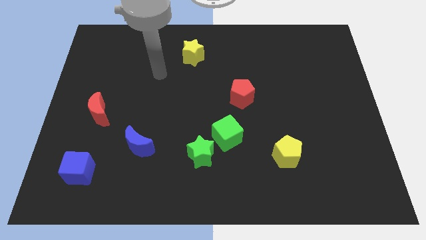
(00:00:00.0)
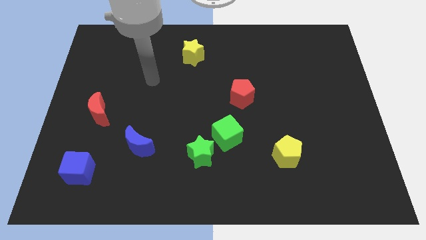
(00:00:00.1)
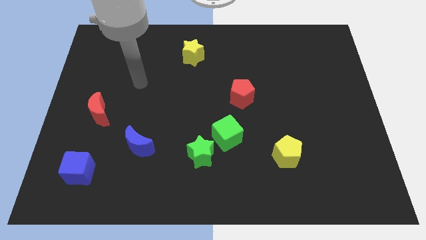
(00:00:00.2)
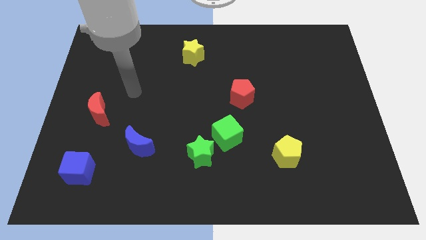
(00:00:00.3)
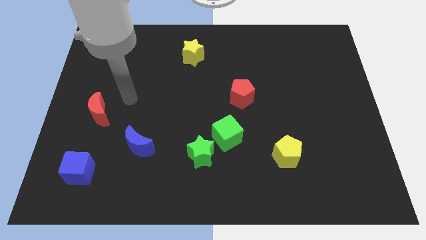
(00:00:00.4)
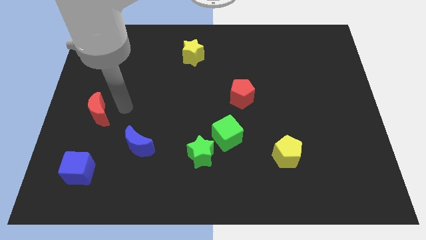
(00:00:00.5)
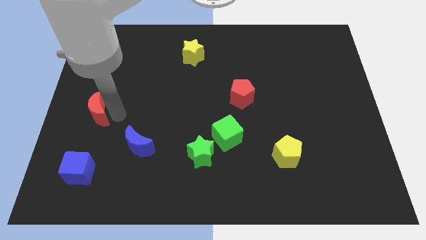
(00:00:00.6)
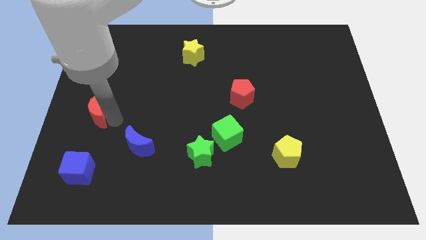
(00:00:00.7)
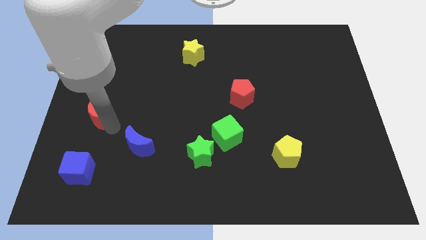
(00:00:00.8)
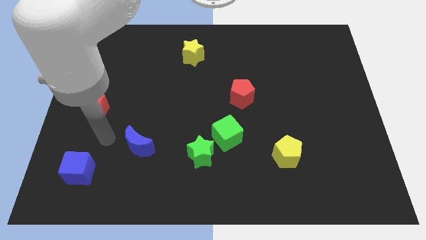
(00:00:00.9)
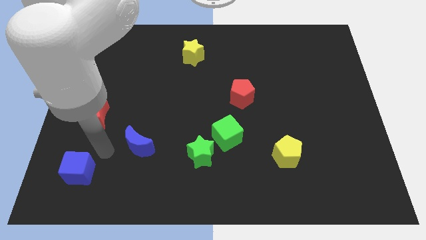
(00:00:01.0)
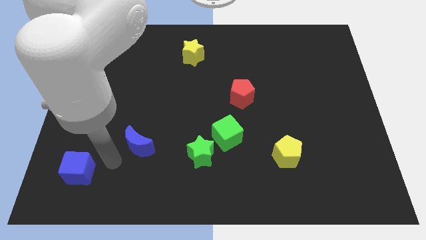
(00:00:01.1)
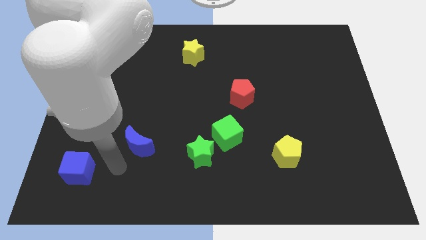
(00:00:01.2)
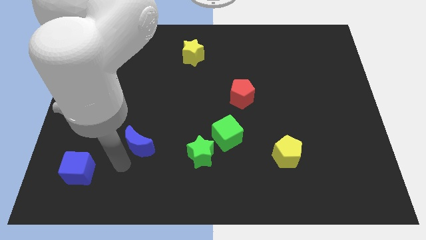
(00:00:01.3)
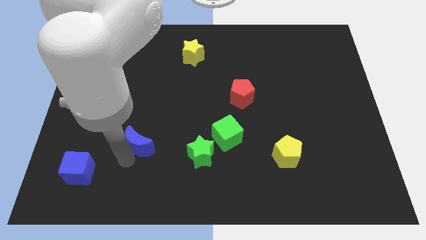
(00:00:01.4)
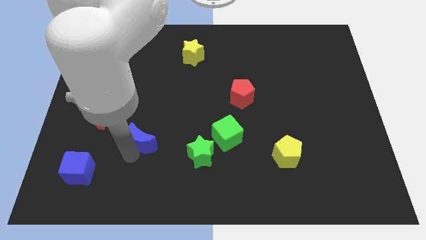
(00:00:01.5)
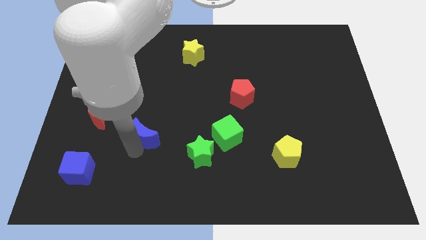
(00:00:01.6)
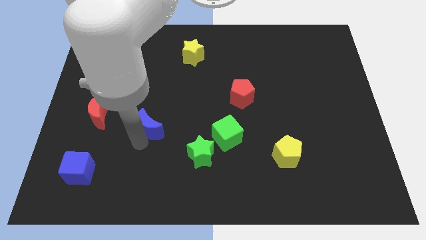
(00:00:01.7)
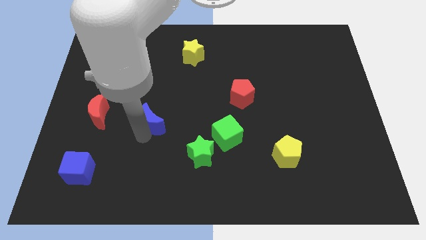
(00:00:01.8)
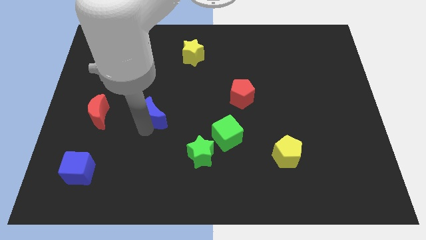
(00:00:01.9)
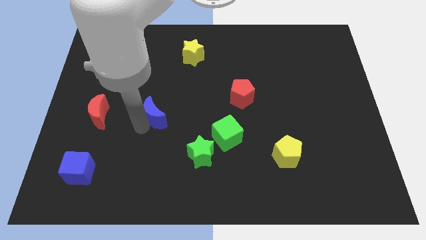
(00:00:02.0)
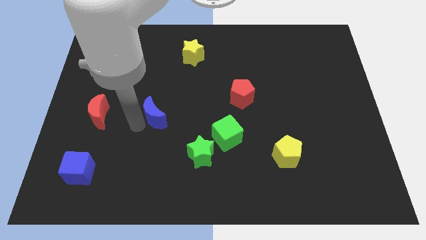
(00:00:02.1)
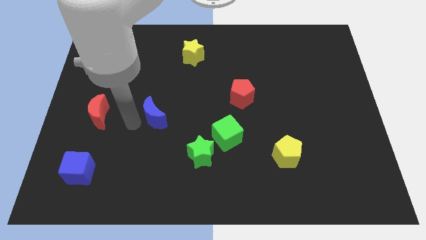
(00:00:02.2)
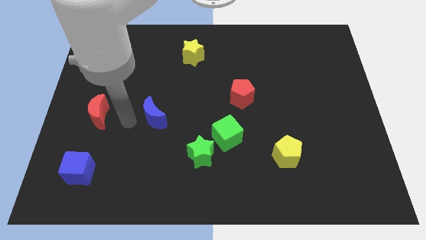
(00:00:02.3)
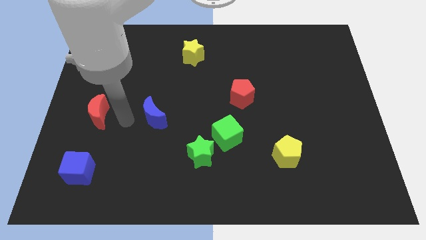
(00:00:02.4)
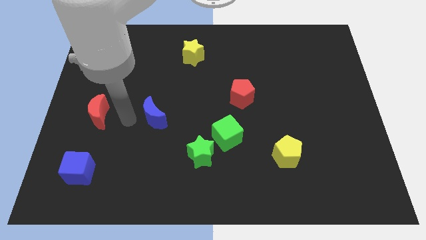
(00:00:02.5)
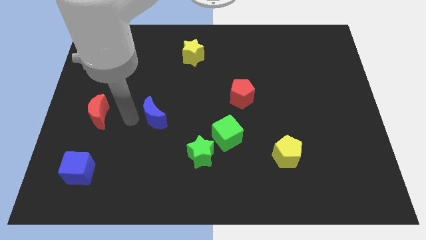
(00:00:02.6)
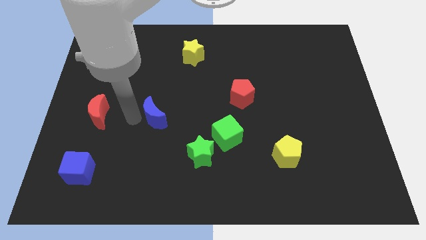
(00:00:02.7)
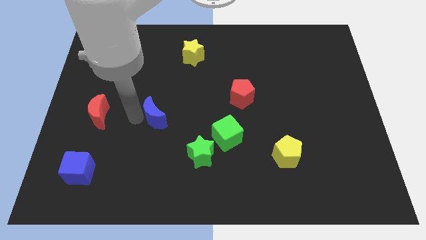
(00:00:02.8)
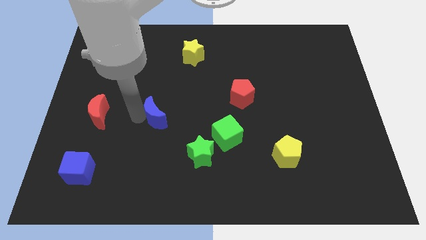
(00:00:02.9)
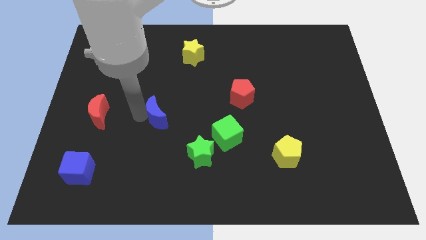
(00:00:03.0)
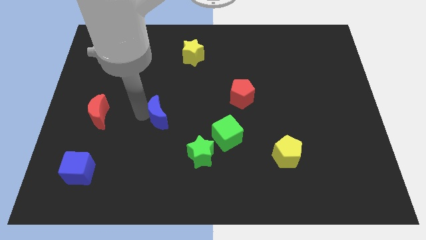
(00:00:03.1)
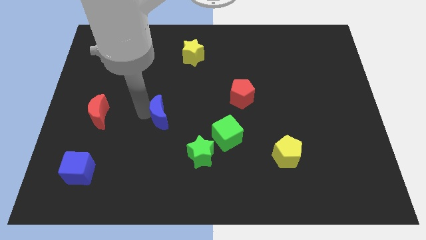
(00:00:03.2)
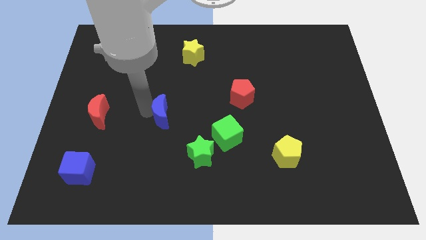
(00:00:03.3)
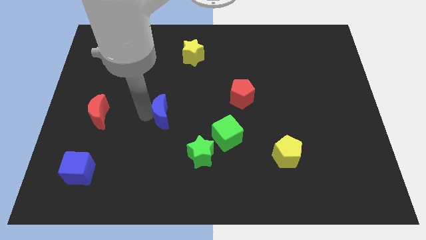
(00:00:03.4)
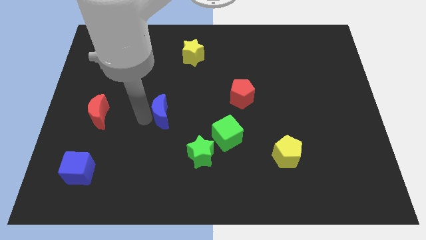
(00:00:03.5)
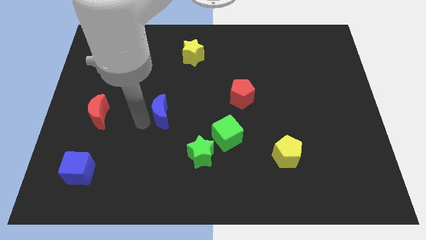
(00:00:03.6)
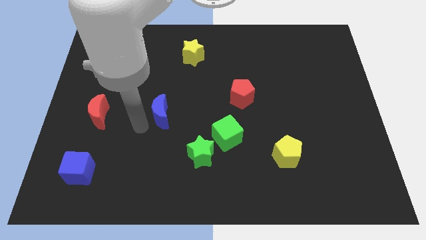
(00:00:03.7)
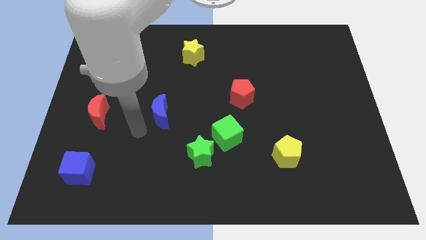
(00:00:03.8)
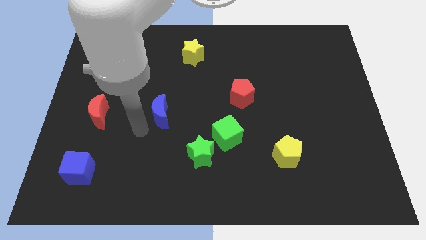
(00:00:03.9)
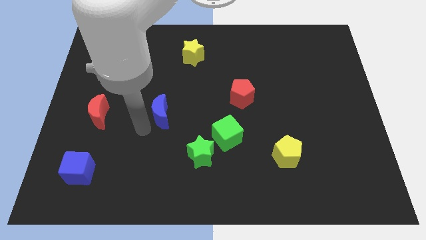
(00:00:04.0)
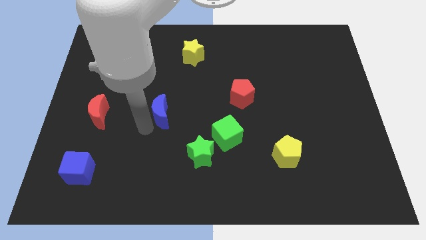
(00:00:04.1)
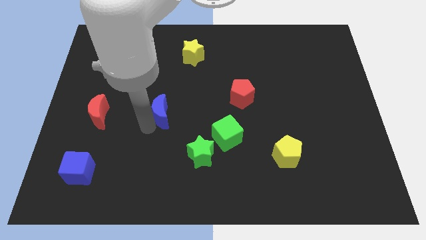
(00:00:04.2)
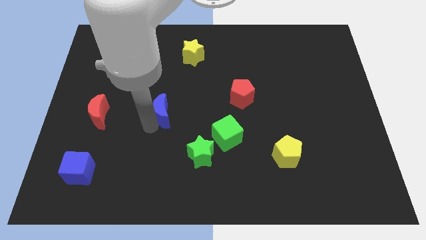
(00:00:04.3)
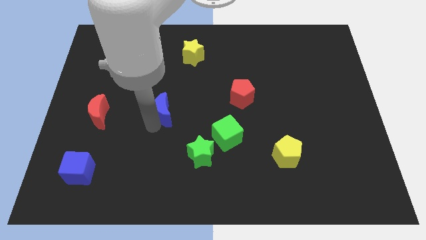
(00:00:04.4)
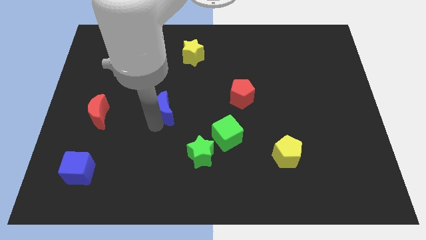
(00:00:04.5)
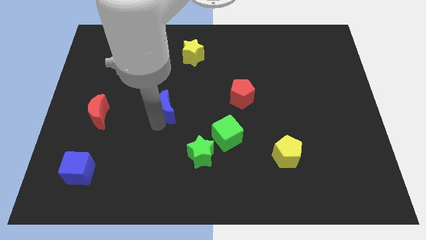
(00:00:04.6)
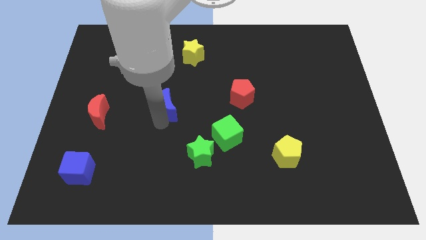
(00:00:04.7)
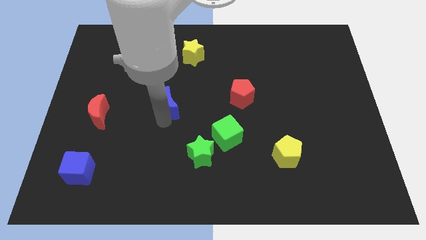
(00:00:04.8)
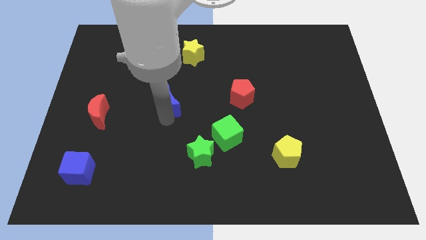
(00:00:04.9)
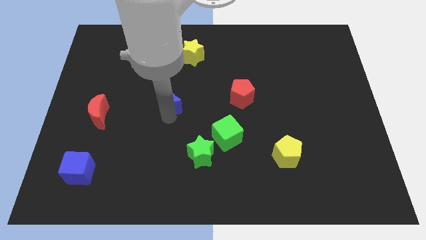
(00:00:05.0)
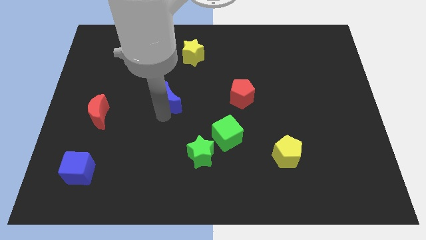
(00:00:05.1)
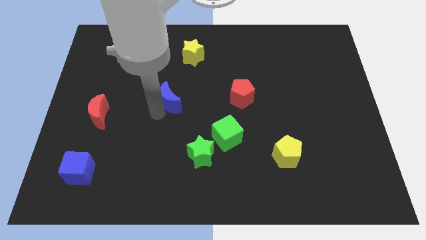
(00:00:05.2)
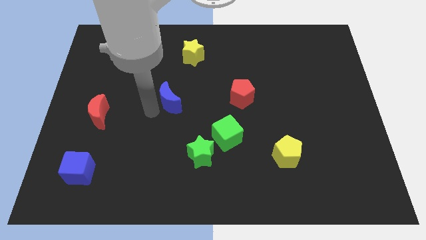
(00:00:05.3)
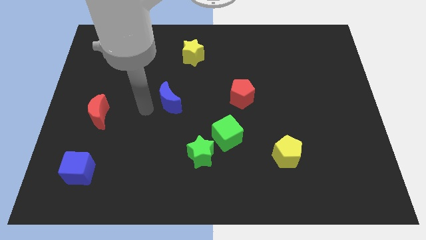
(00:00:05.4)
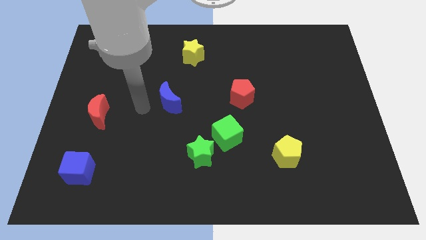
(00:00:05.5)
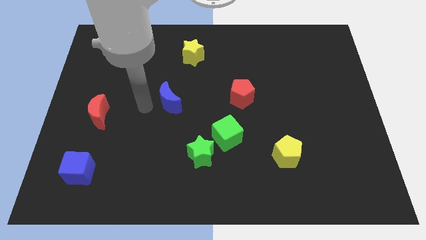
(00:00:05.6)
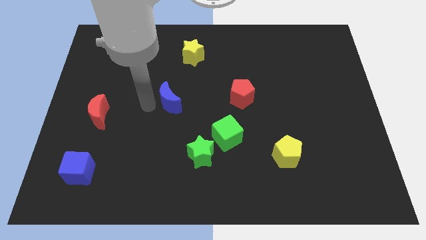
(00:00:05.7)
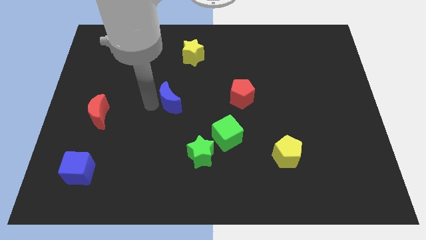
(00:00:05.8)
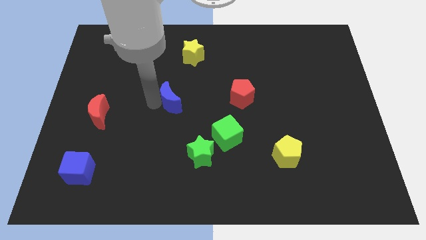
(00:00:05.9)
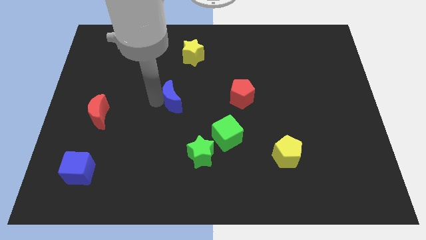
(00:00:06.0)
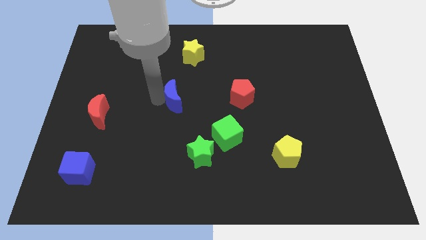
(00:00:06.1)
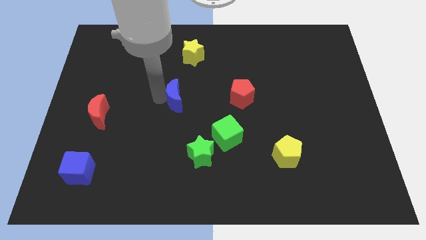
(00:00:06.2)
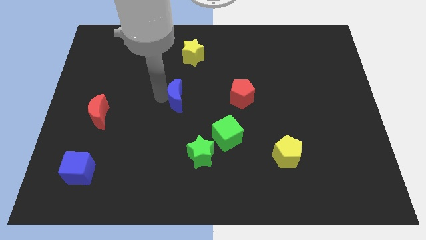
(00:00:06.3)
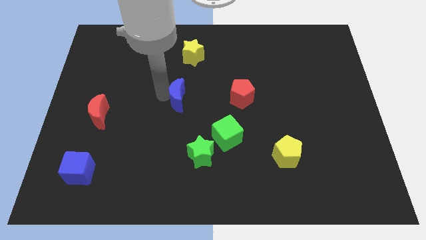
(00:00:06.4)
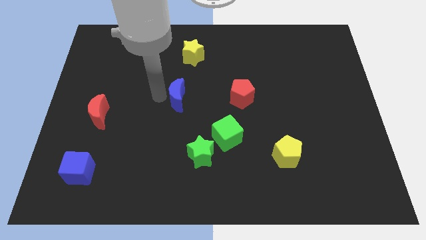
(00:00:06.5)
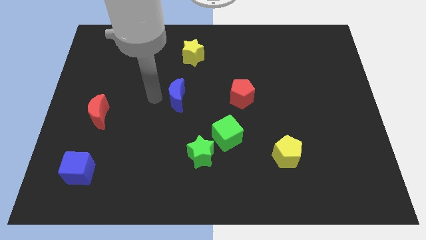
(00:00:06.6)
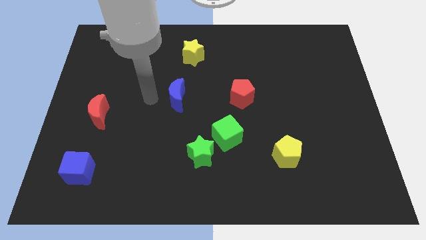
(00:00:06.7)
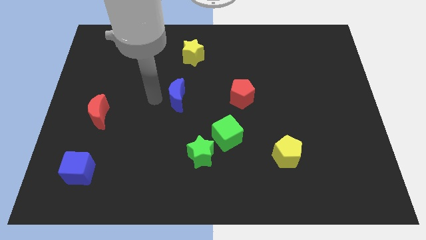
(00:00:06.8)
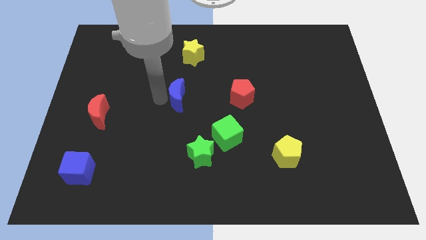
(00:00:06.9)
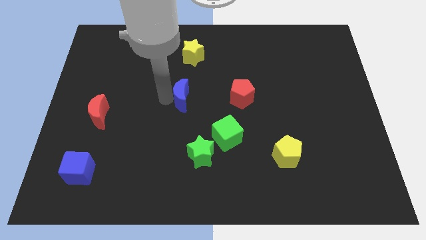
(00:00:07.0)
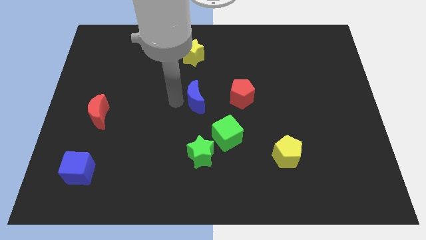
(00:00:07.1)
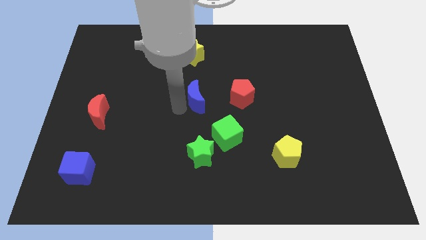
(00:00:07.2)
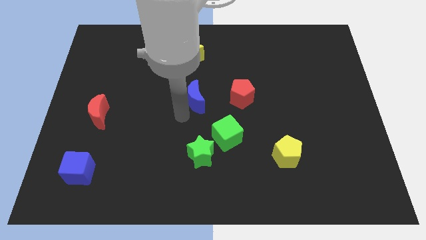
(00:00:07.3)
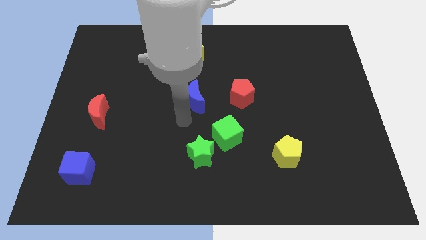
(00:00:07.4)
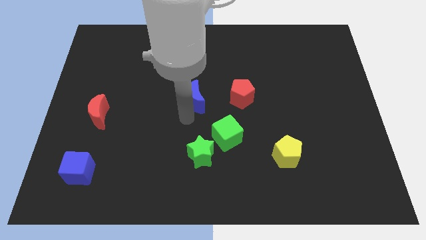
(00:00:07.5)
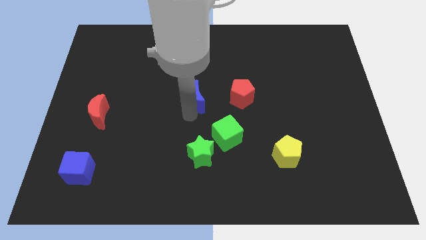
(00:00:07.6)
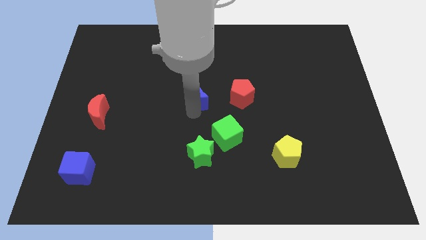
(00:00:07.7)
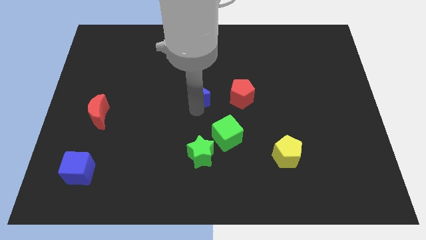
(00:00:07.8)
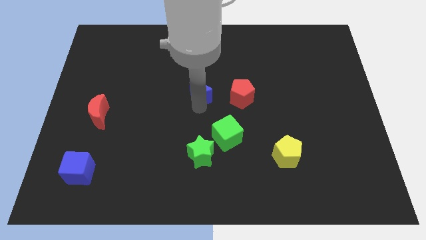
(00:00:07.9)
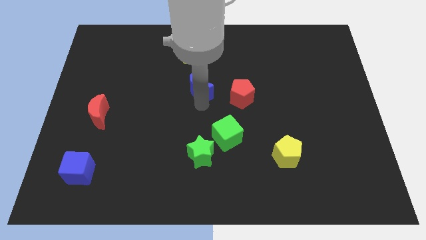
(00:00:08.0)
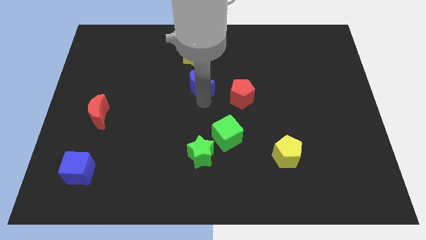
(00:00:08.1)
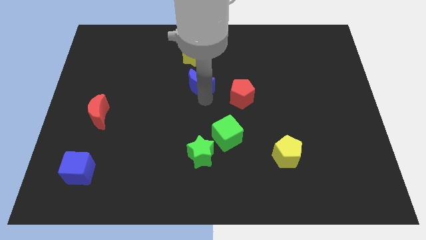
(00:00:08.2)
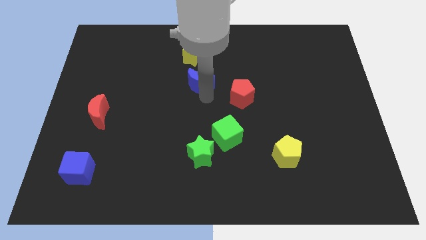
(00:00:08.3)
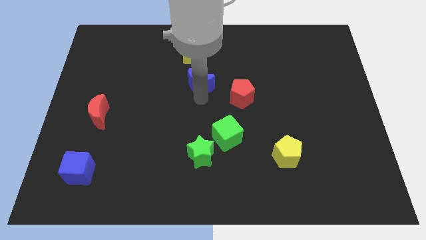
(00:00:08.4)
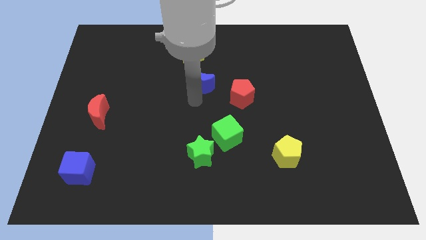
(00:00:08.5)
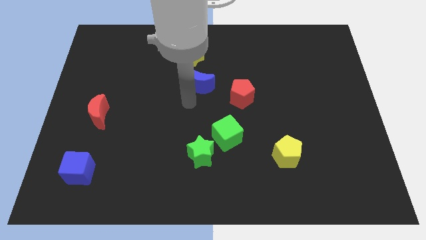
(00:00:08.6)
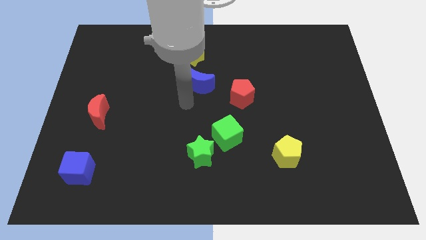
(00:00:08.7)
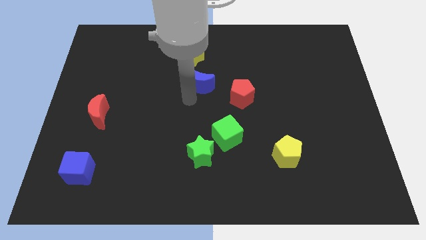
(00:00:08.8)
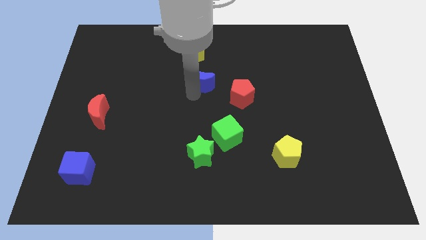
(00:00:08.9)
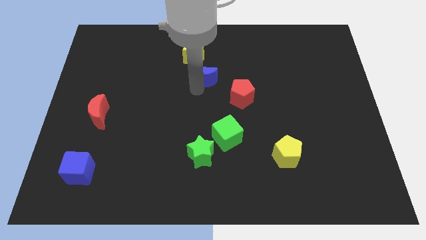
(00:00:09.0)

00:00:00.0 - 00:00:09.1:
slide the blue moon to the bottom right side of the yellow star
